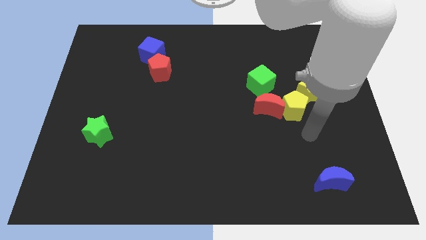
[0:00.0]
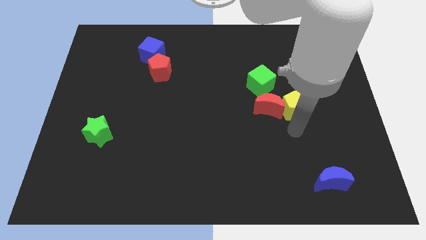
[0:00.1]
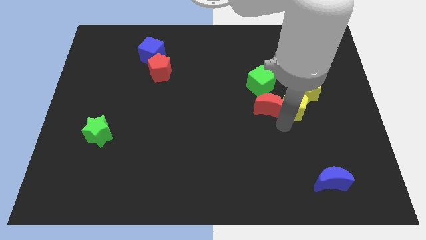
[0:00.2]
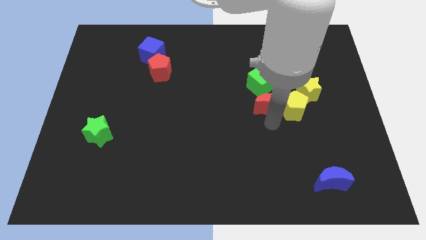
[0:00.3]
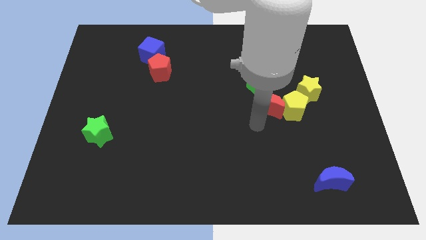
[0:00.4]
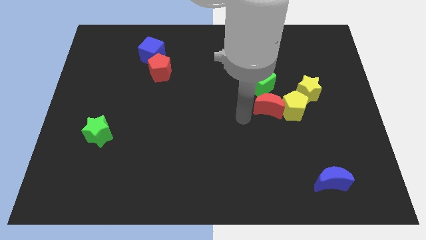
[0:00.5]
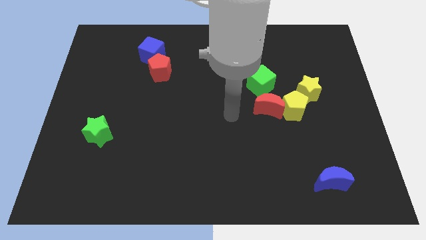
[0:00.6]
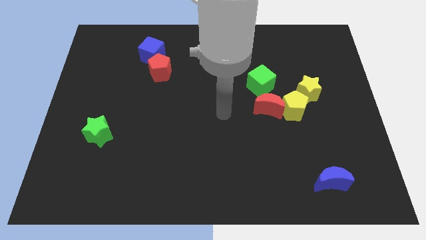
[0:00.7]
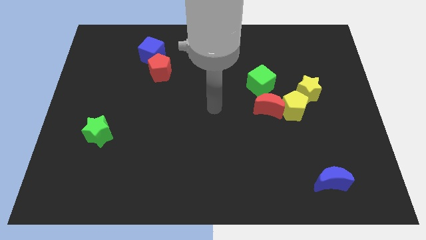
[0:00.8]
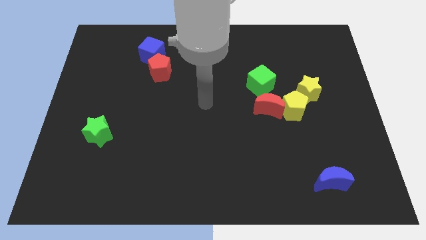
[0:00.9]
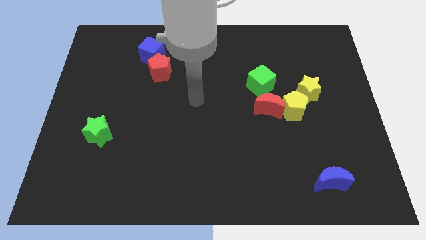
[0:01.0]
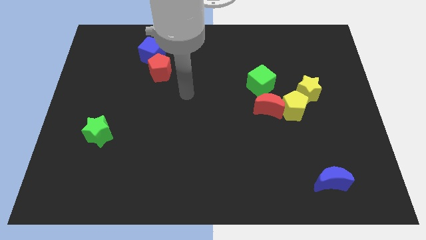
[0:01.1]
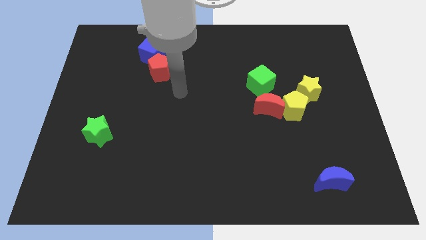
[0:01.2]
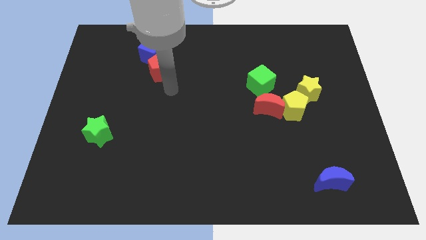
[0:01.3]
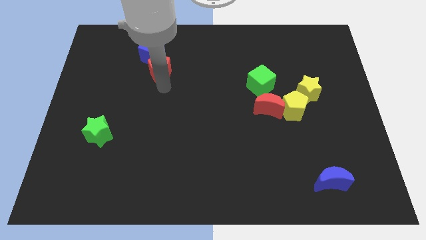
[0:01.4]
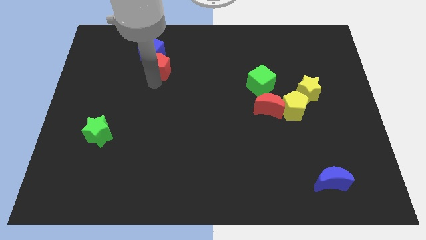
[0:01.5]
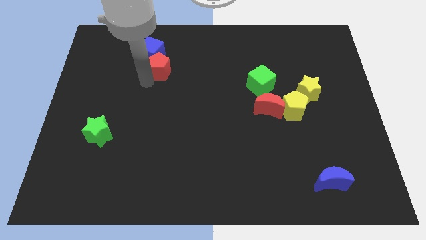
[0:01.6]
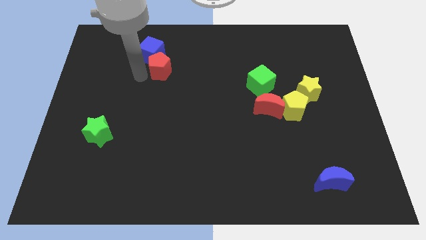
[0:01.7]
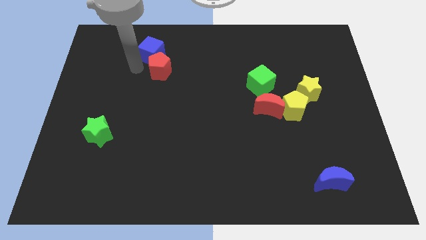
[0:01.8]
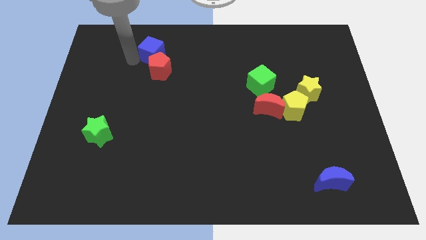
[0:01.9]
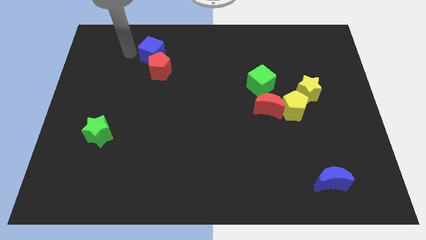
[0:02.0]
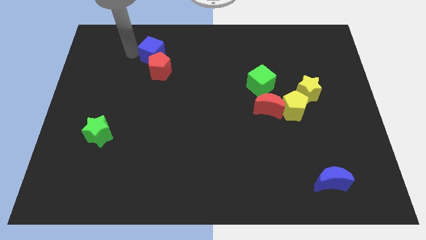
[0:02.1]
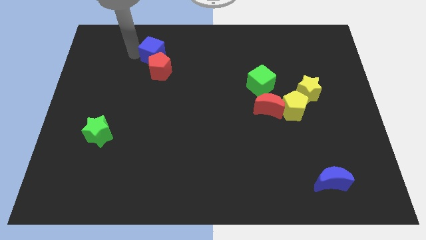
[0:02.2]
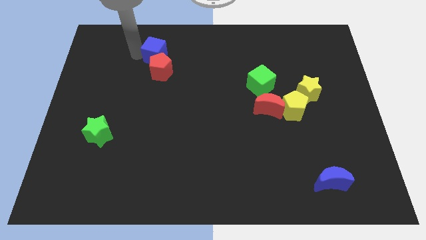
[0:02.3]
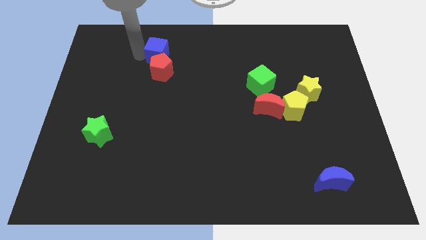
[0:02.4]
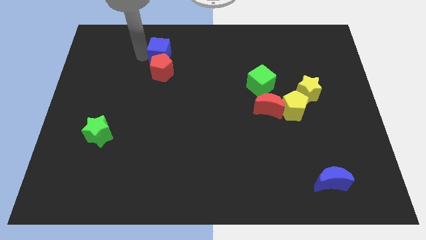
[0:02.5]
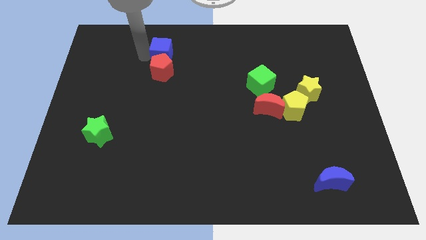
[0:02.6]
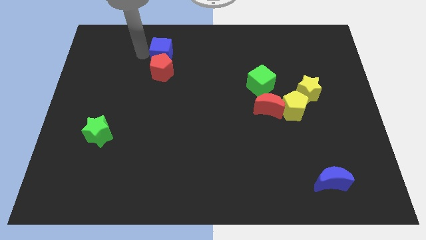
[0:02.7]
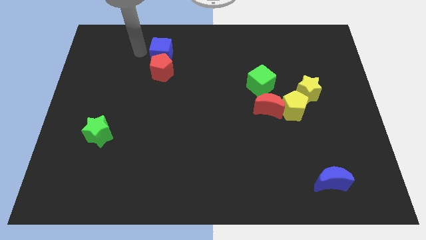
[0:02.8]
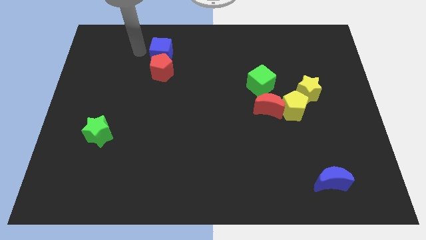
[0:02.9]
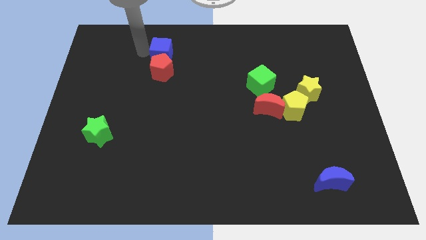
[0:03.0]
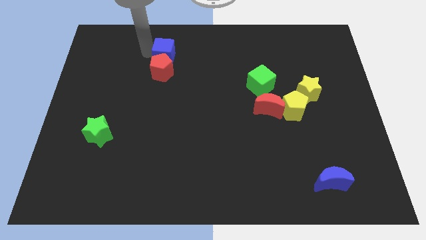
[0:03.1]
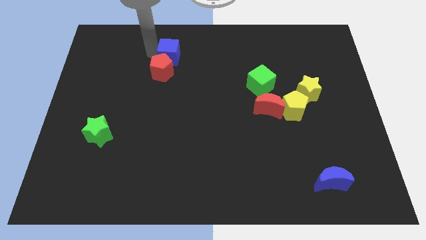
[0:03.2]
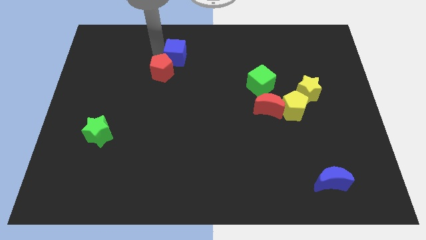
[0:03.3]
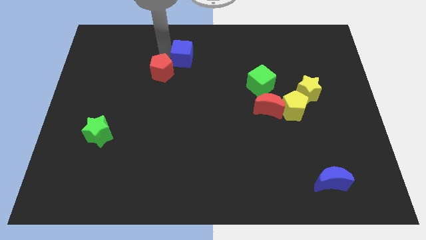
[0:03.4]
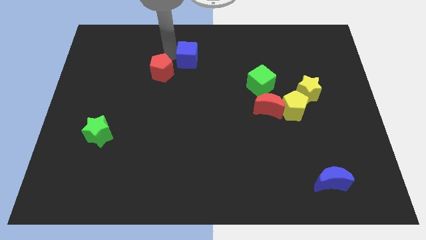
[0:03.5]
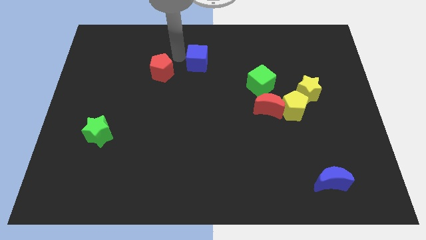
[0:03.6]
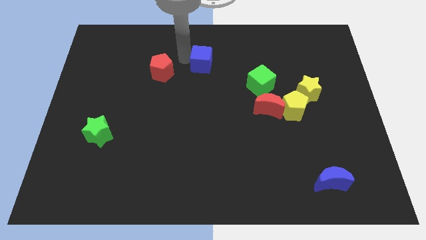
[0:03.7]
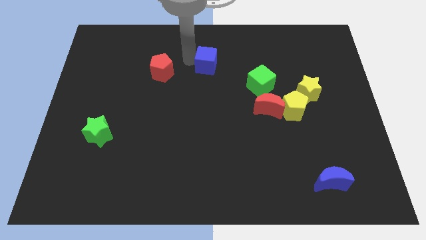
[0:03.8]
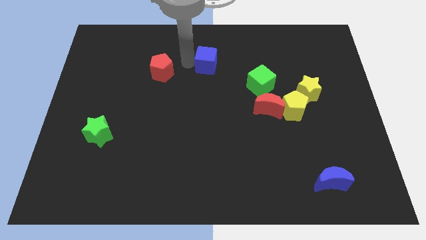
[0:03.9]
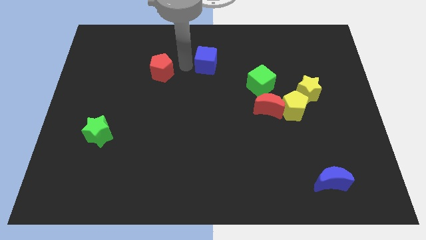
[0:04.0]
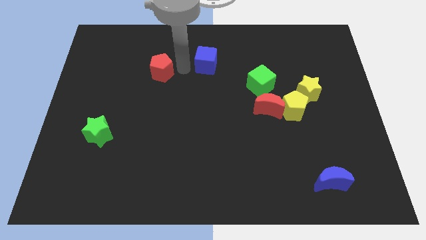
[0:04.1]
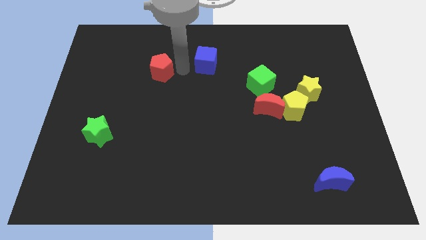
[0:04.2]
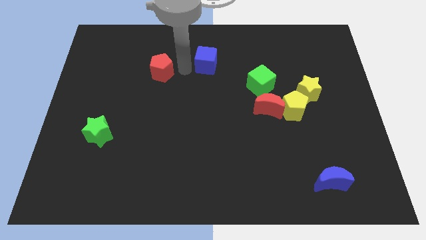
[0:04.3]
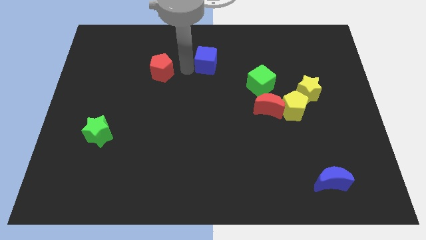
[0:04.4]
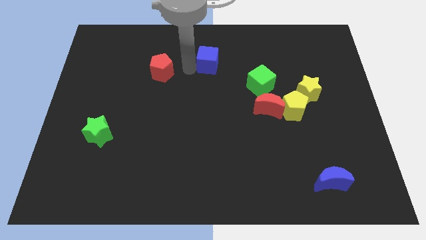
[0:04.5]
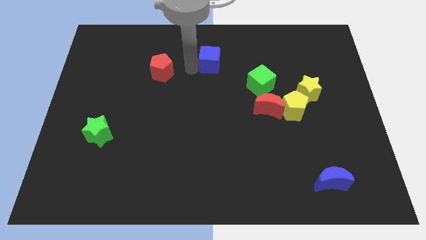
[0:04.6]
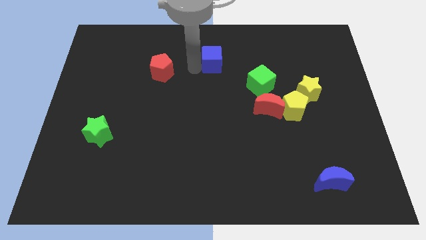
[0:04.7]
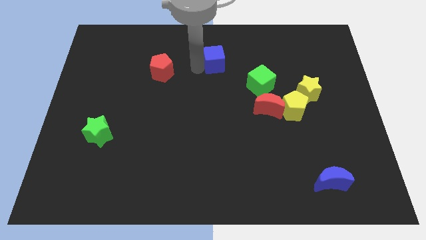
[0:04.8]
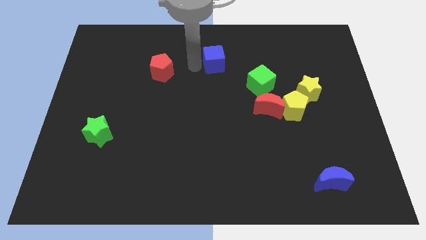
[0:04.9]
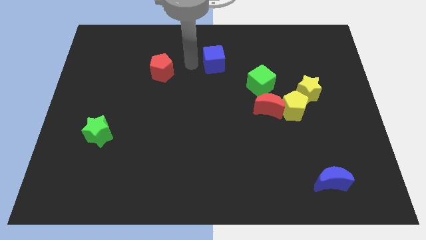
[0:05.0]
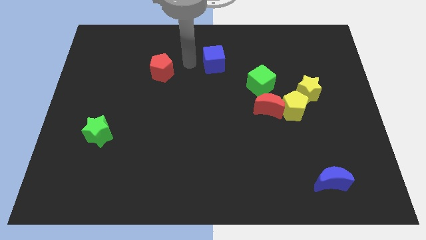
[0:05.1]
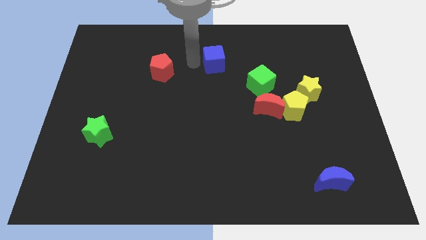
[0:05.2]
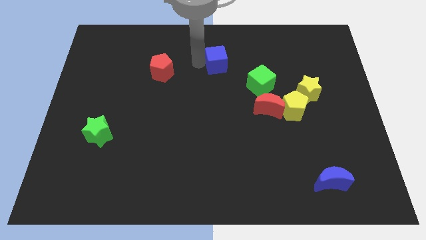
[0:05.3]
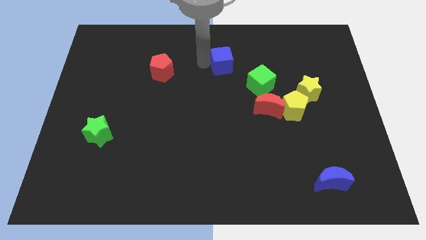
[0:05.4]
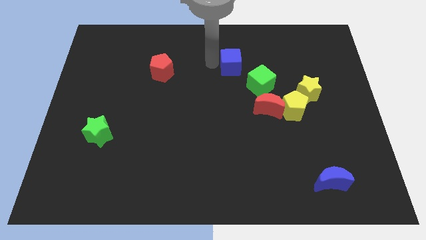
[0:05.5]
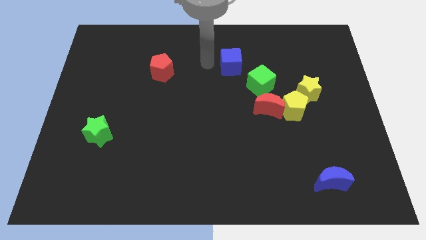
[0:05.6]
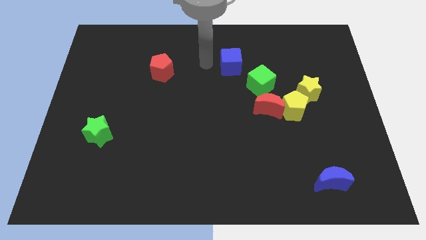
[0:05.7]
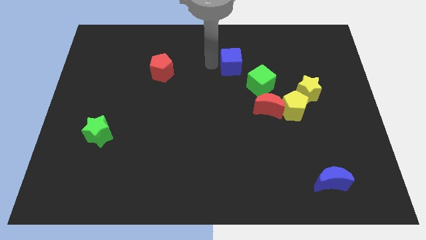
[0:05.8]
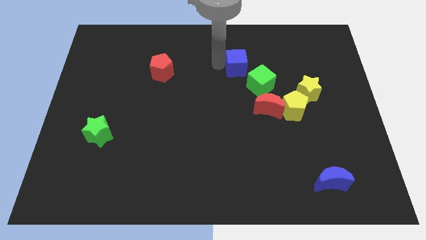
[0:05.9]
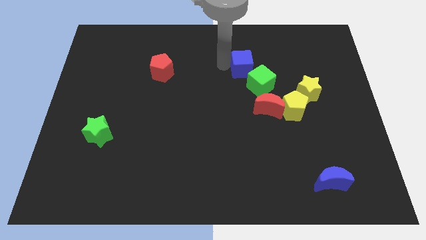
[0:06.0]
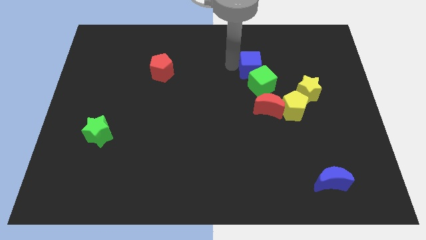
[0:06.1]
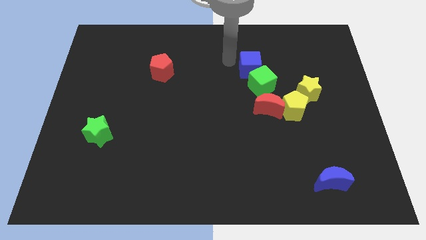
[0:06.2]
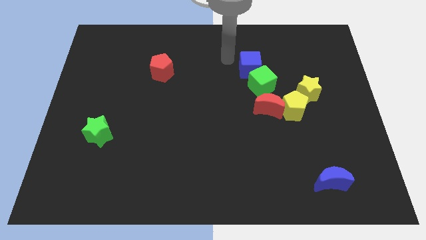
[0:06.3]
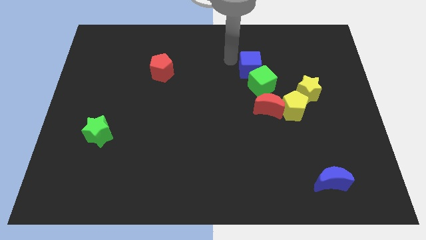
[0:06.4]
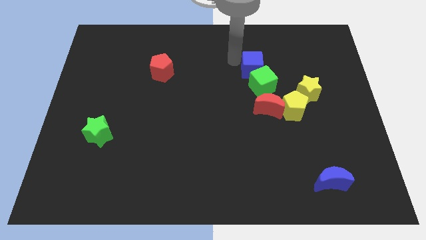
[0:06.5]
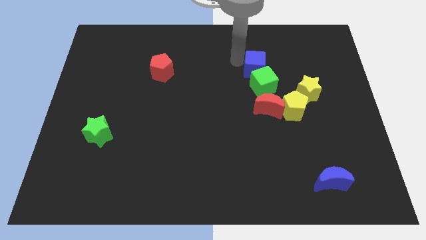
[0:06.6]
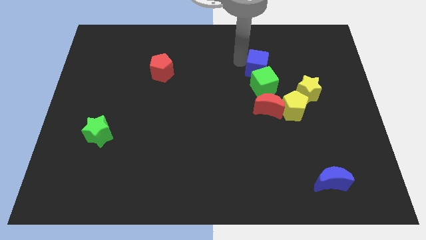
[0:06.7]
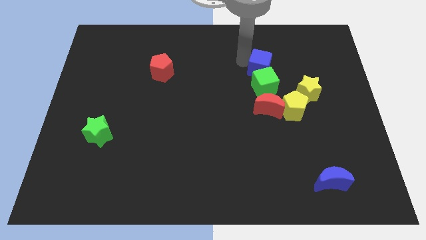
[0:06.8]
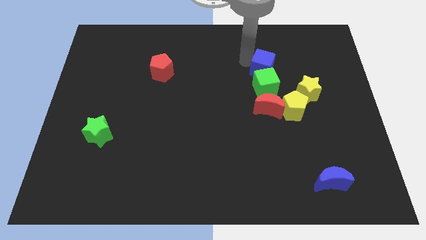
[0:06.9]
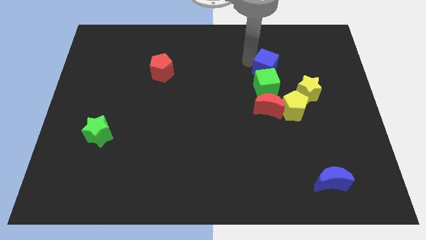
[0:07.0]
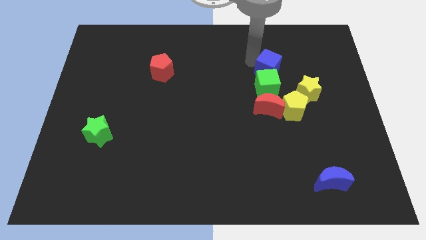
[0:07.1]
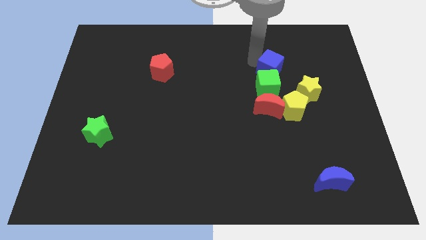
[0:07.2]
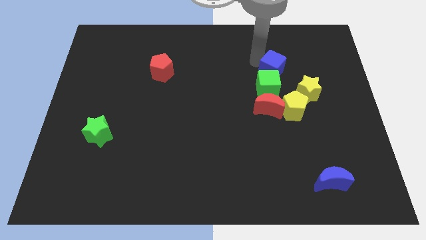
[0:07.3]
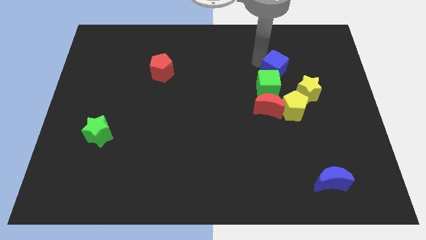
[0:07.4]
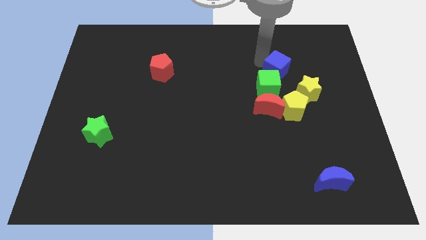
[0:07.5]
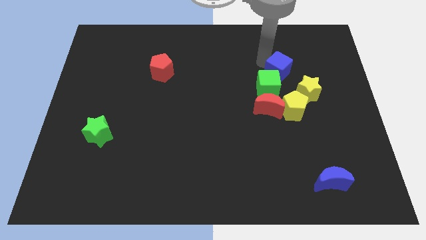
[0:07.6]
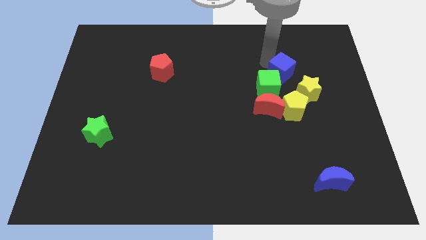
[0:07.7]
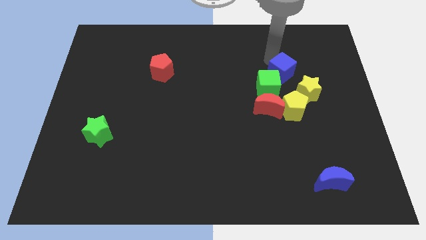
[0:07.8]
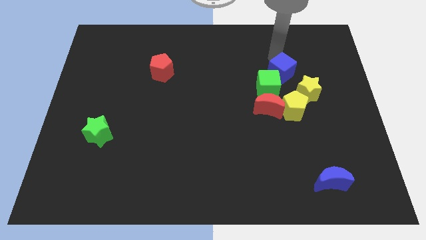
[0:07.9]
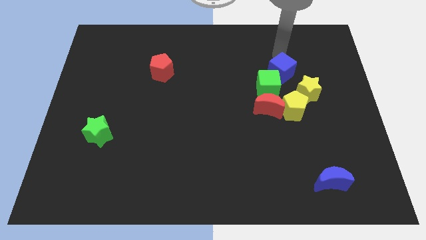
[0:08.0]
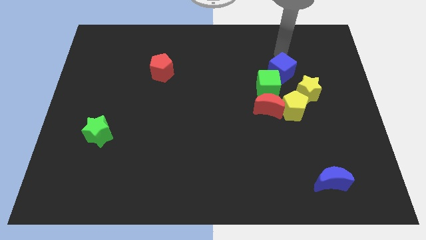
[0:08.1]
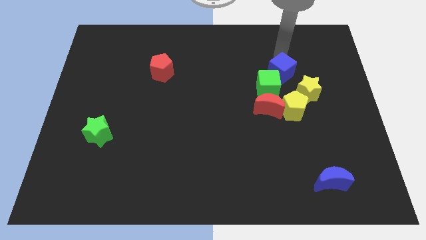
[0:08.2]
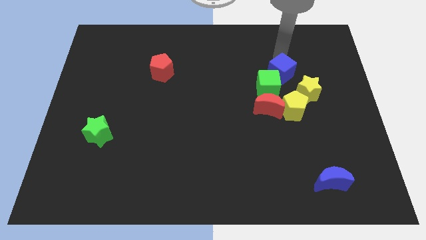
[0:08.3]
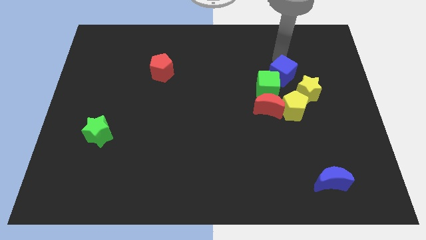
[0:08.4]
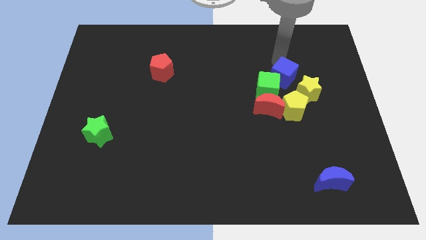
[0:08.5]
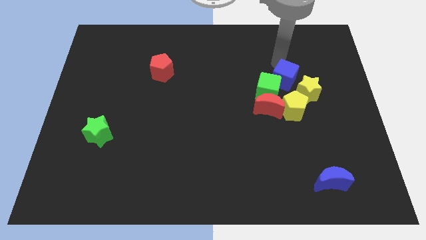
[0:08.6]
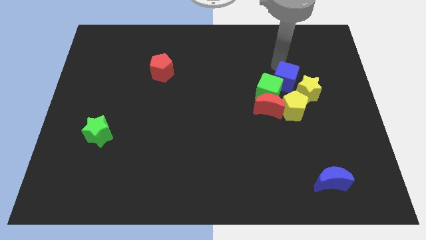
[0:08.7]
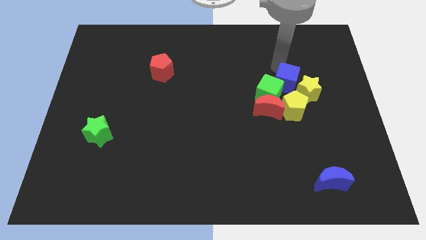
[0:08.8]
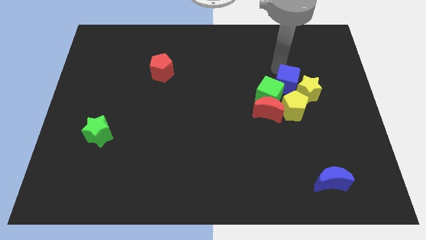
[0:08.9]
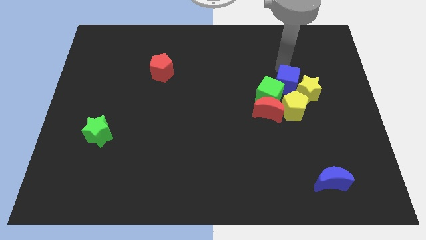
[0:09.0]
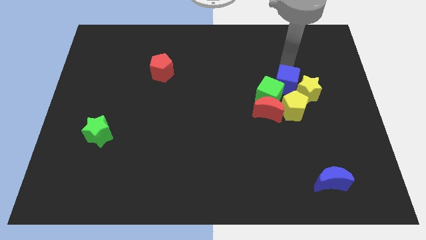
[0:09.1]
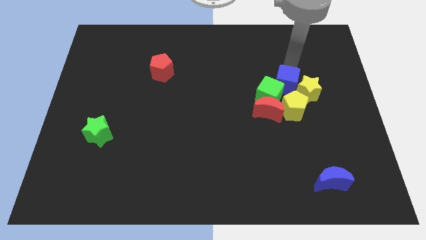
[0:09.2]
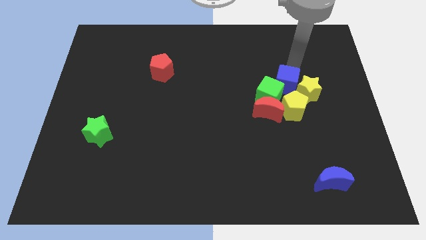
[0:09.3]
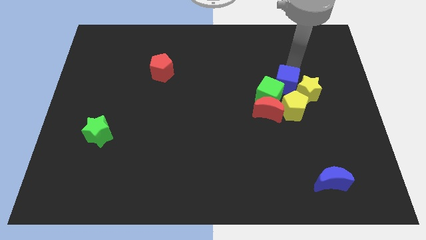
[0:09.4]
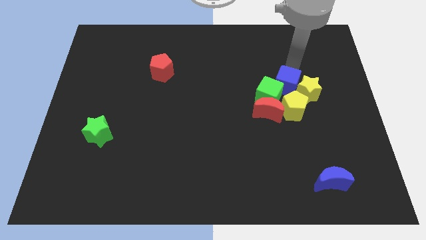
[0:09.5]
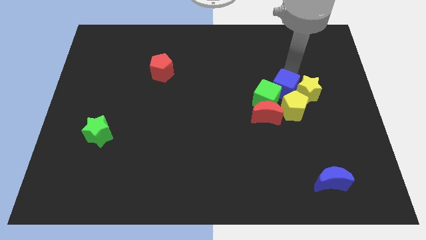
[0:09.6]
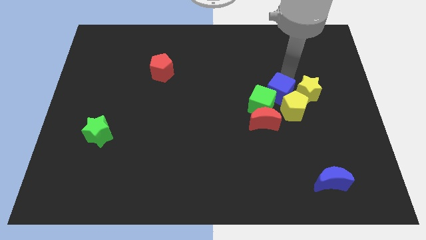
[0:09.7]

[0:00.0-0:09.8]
move the blue cube to the yellow pentagon
